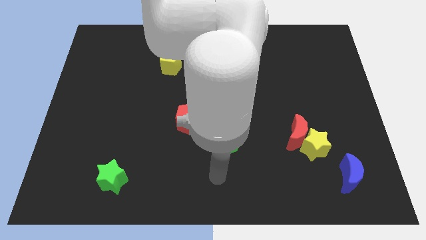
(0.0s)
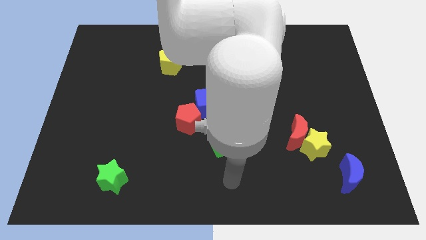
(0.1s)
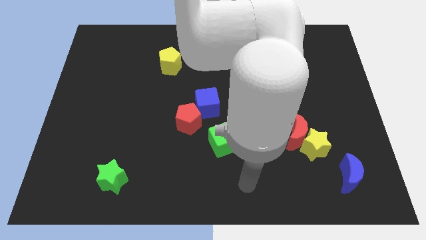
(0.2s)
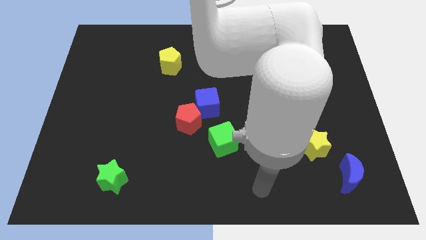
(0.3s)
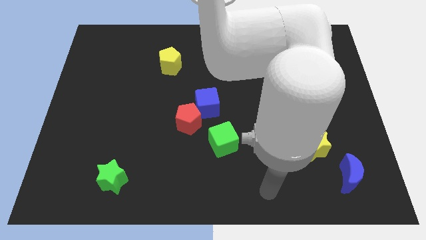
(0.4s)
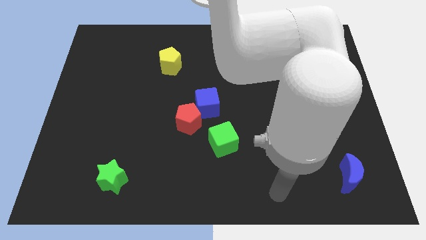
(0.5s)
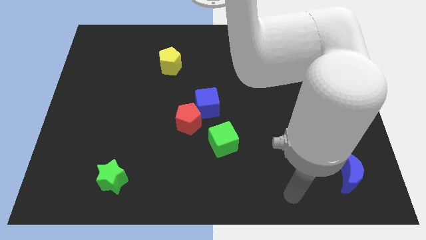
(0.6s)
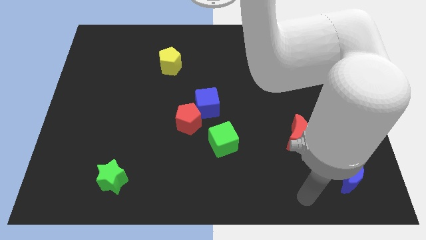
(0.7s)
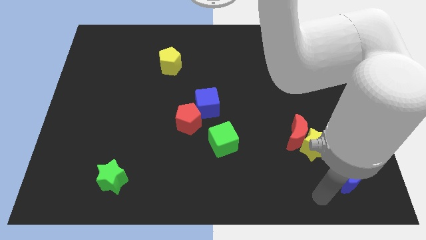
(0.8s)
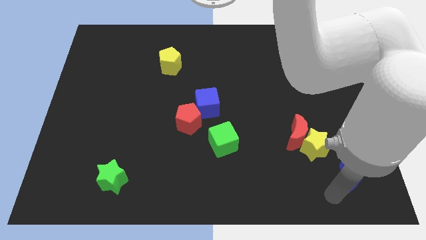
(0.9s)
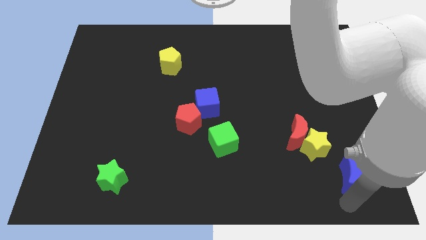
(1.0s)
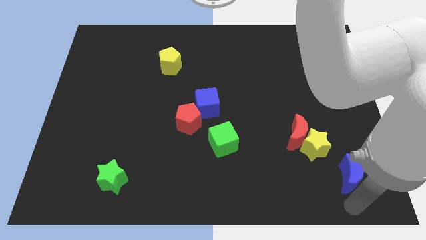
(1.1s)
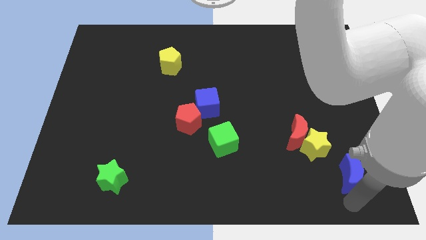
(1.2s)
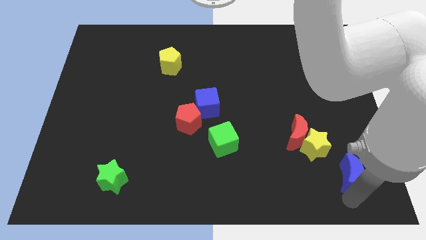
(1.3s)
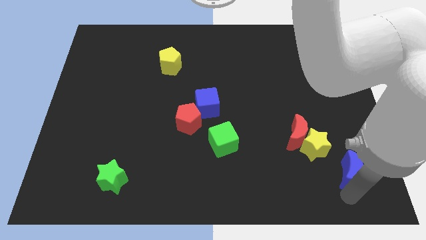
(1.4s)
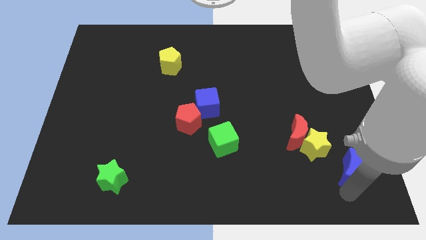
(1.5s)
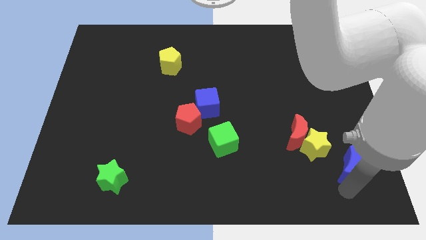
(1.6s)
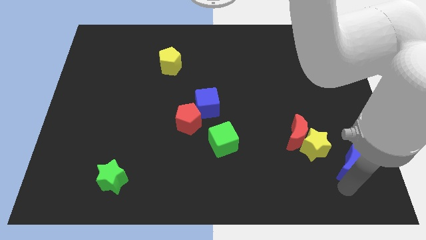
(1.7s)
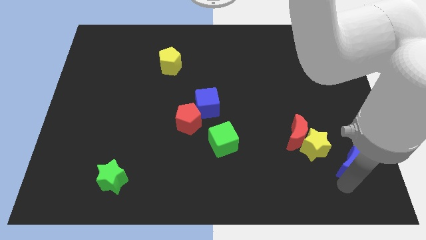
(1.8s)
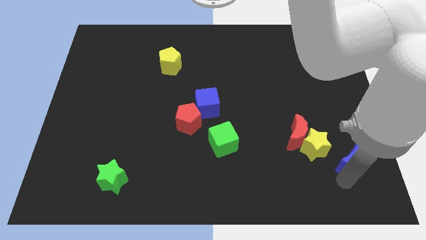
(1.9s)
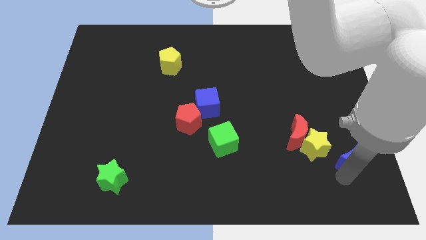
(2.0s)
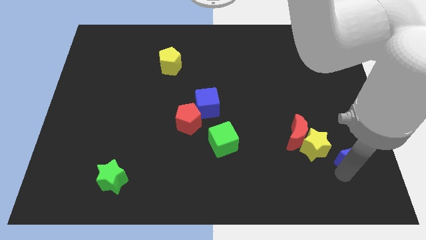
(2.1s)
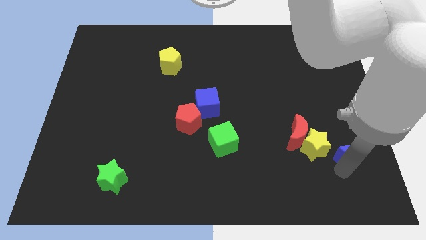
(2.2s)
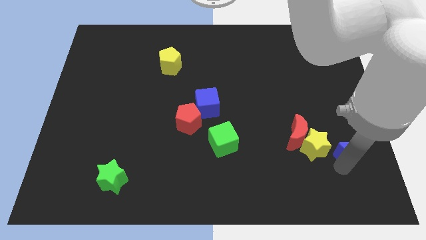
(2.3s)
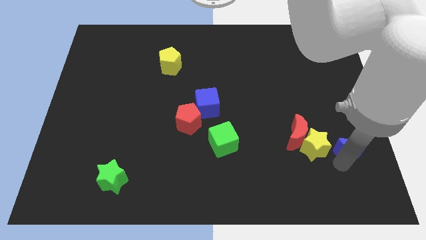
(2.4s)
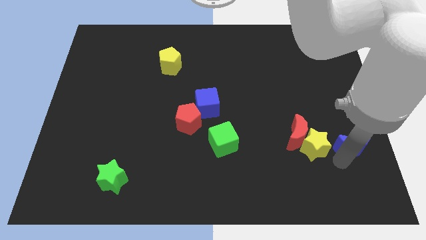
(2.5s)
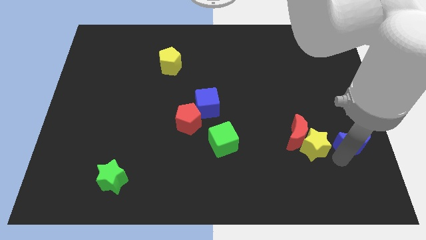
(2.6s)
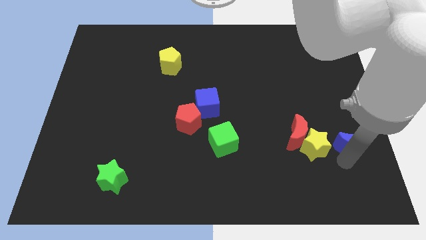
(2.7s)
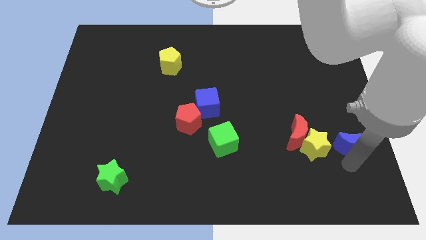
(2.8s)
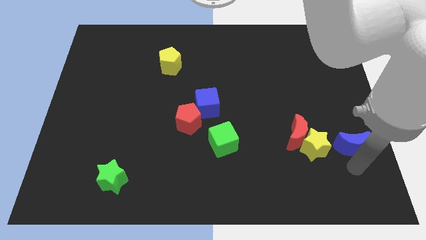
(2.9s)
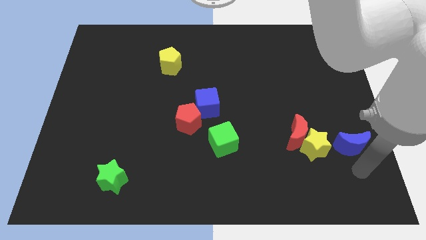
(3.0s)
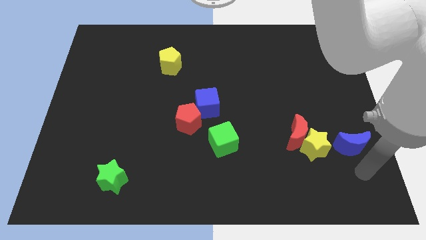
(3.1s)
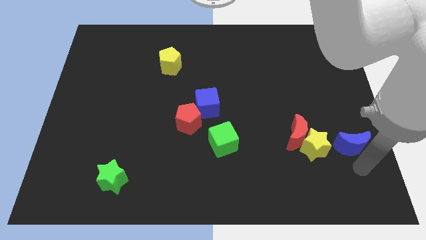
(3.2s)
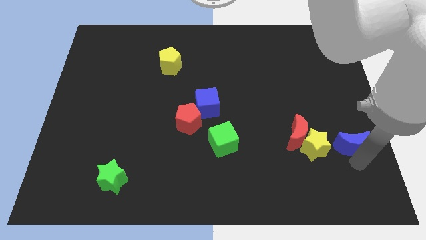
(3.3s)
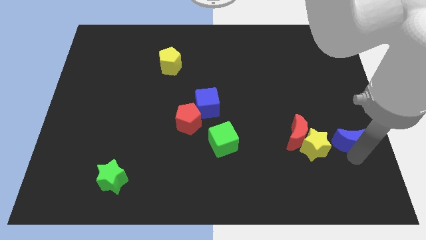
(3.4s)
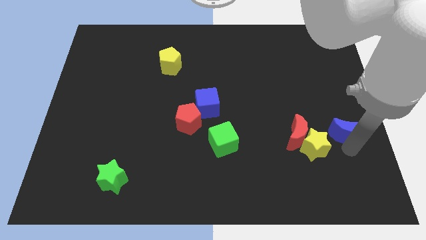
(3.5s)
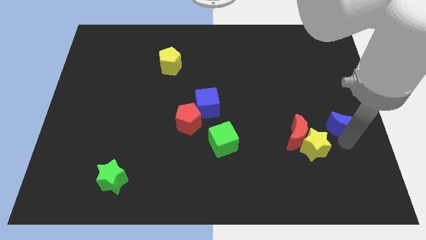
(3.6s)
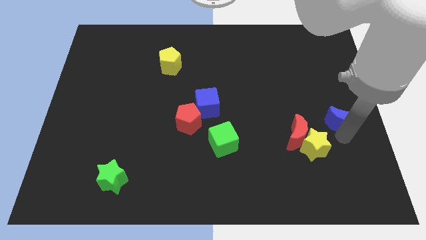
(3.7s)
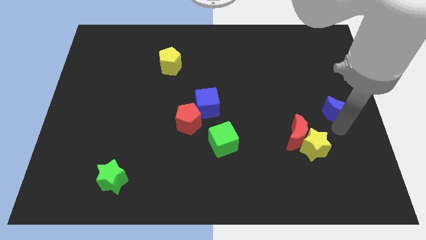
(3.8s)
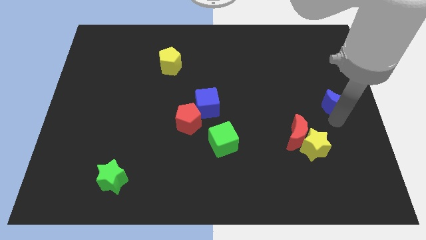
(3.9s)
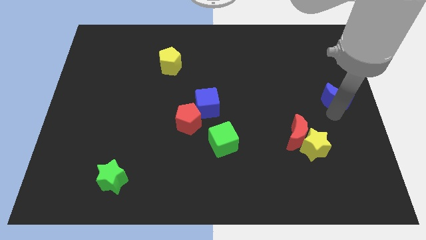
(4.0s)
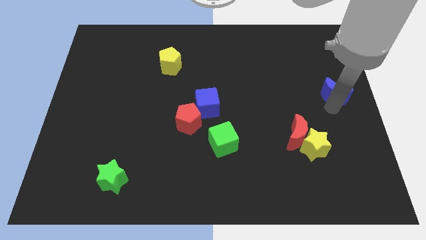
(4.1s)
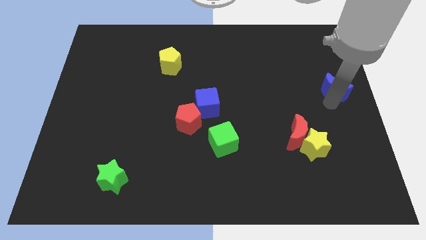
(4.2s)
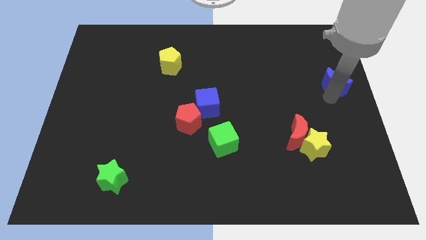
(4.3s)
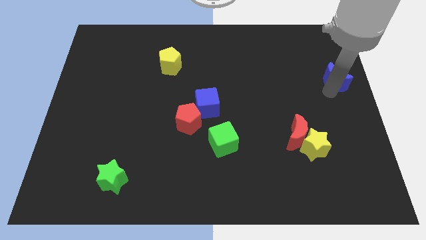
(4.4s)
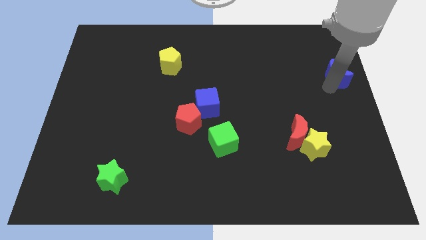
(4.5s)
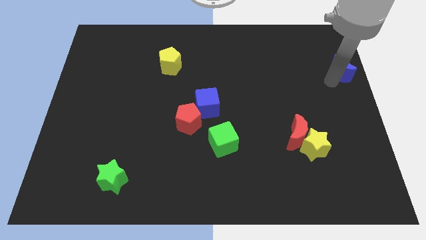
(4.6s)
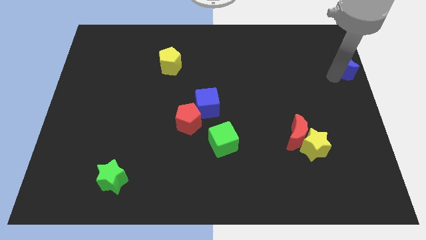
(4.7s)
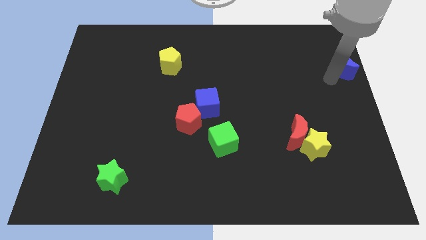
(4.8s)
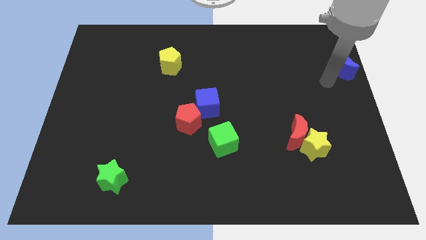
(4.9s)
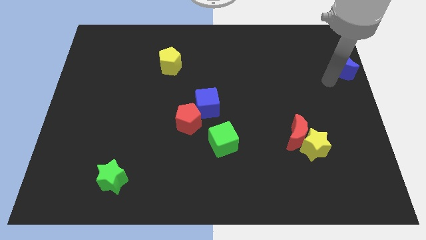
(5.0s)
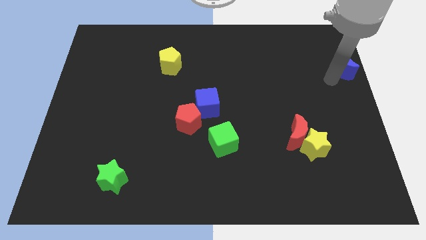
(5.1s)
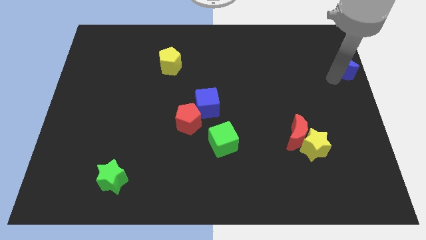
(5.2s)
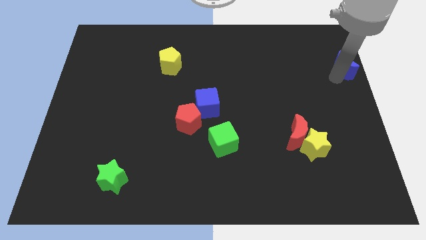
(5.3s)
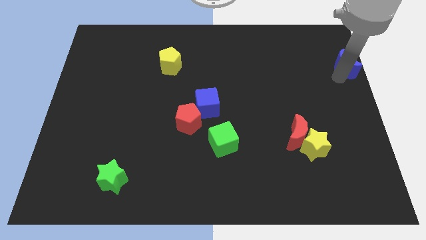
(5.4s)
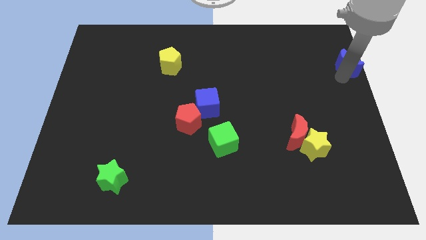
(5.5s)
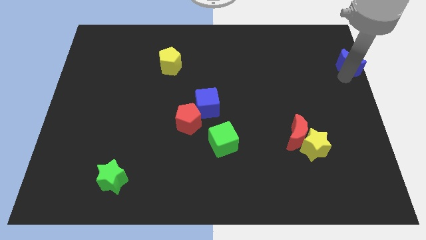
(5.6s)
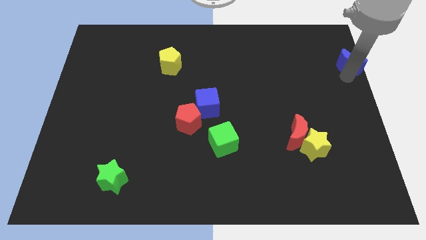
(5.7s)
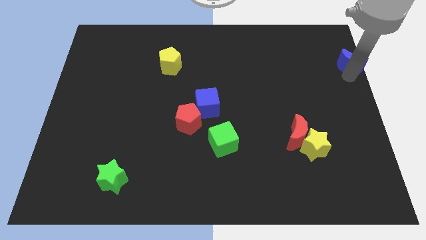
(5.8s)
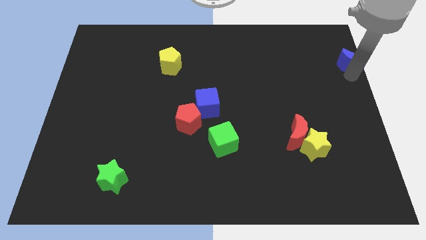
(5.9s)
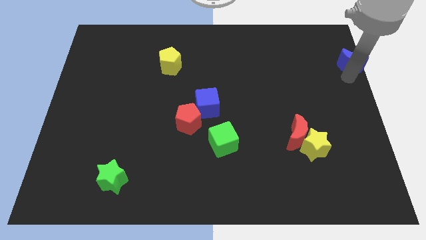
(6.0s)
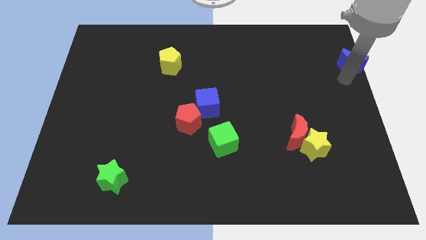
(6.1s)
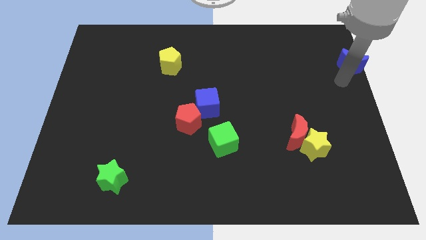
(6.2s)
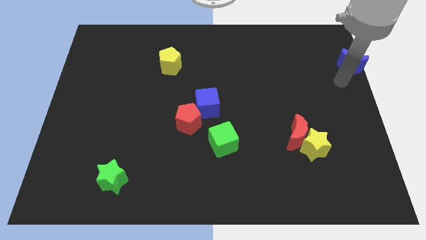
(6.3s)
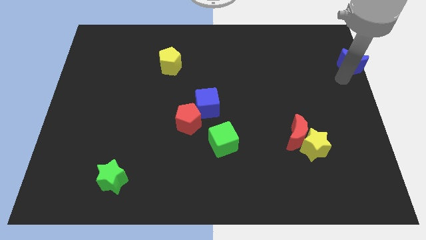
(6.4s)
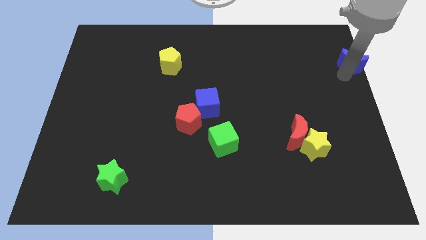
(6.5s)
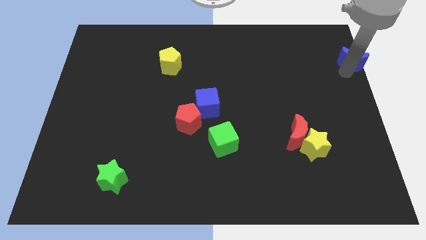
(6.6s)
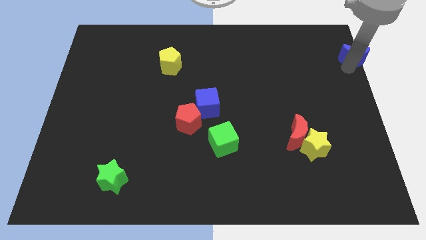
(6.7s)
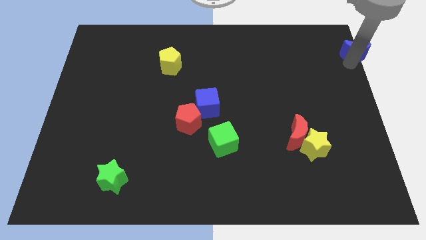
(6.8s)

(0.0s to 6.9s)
push the blue moon to the upper right corner
